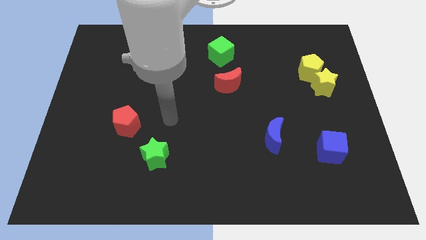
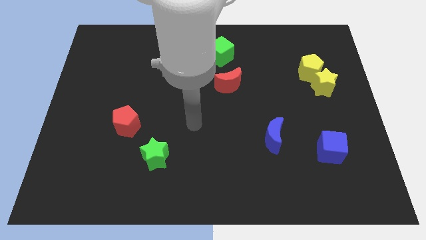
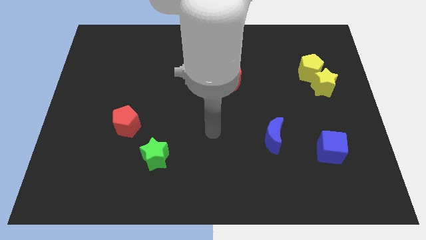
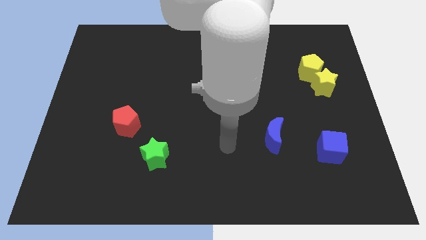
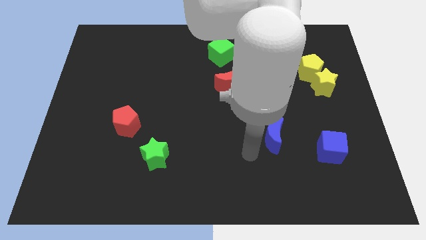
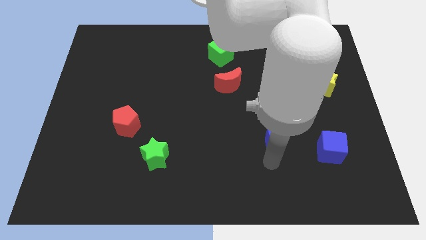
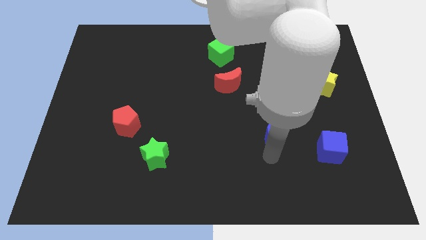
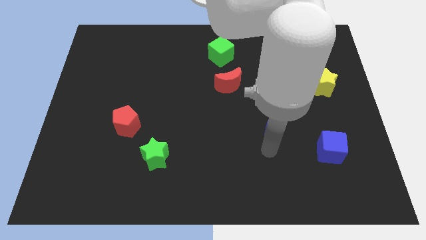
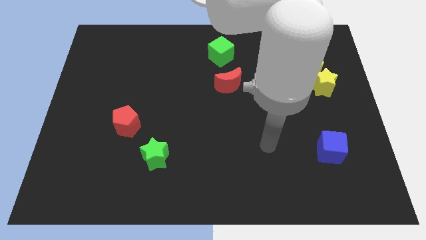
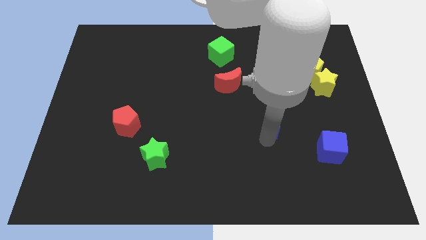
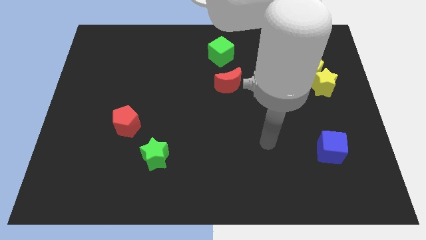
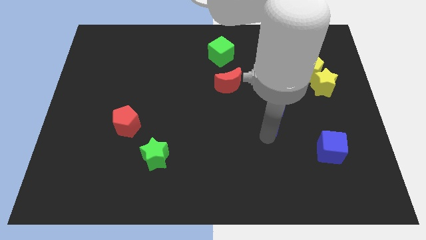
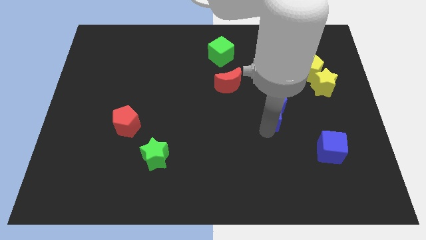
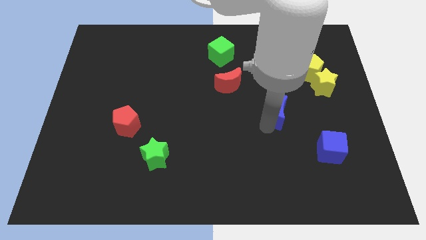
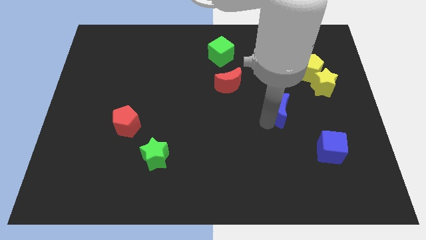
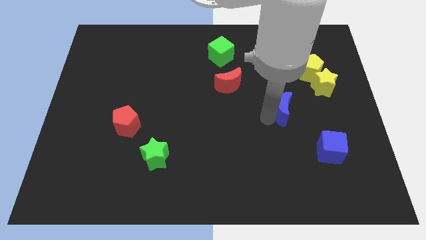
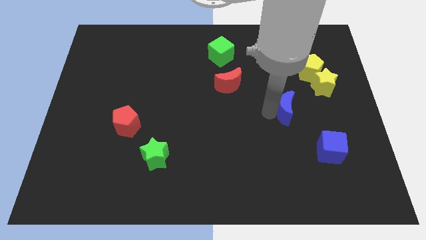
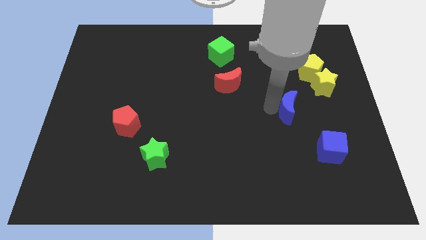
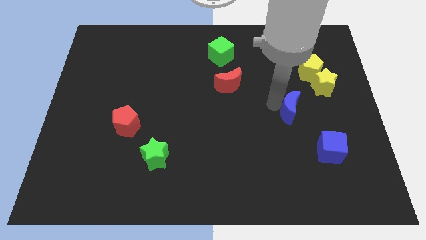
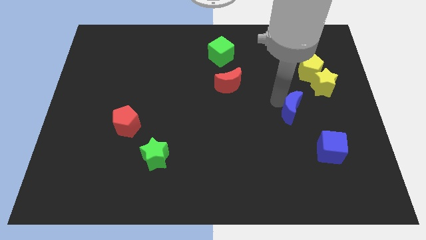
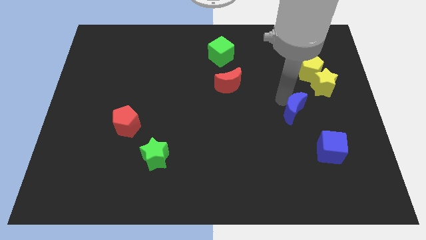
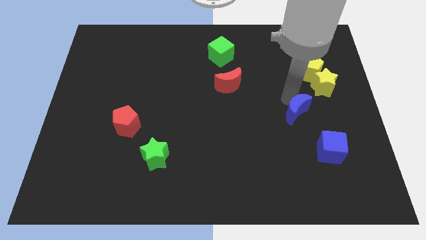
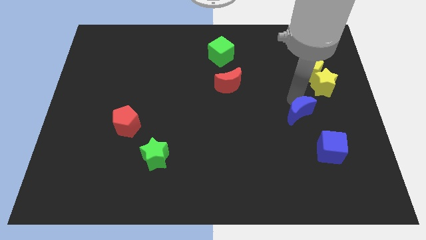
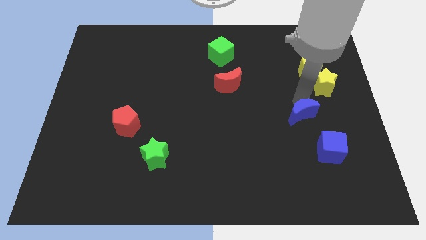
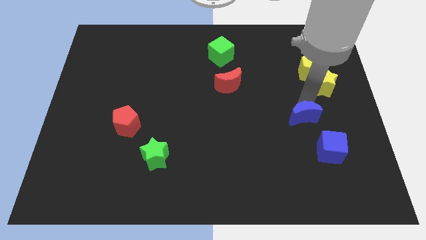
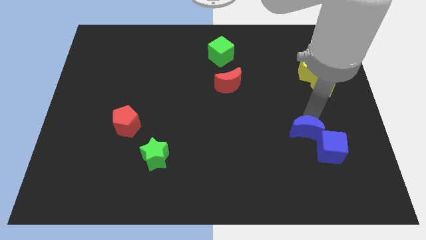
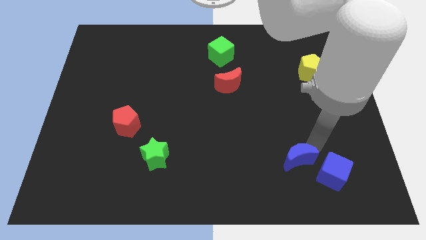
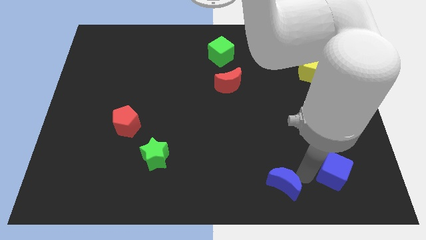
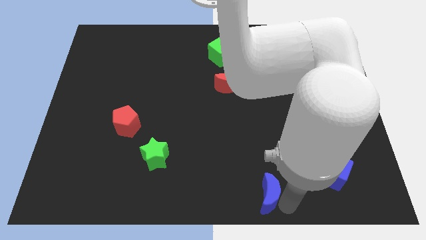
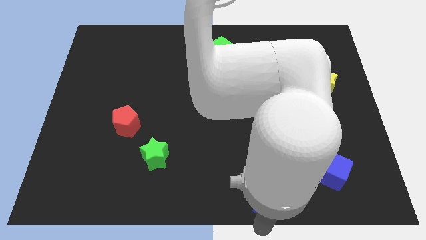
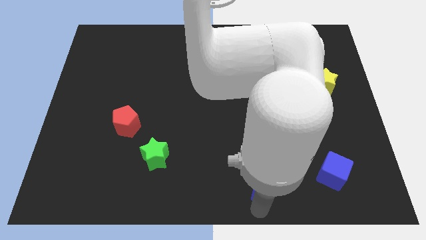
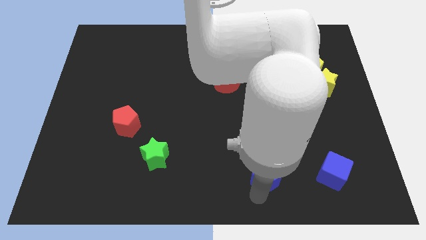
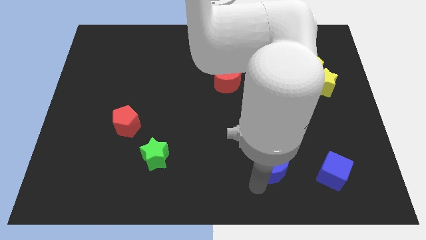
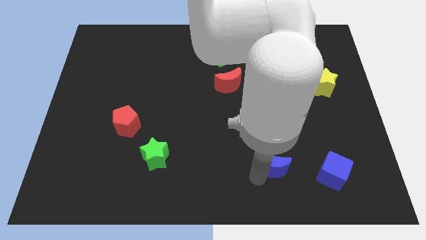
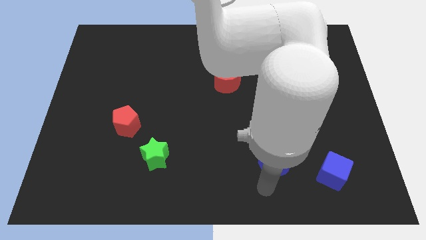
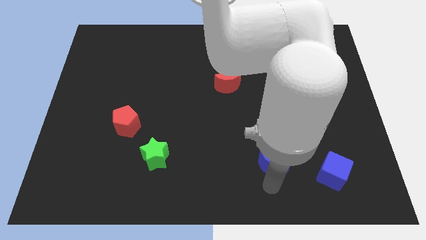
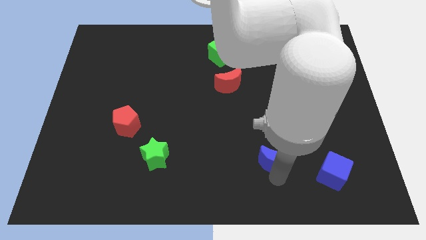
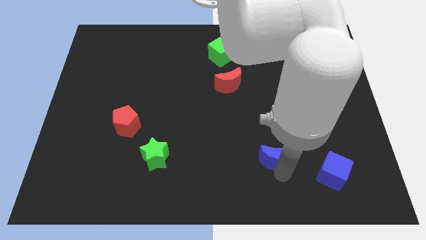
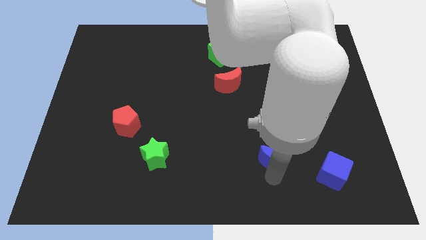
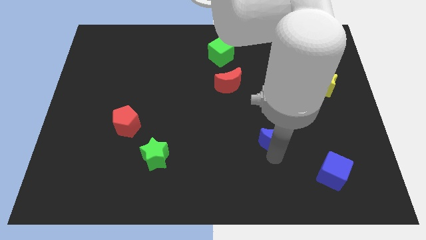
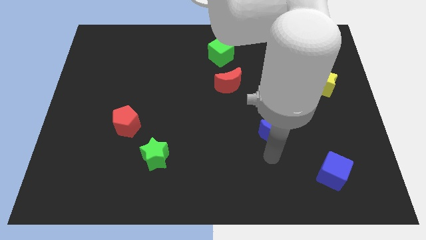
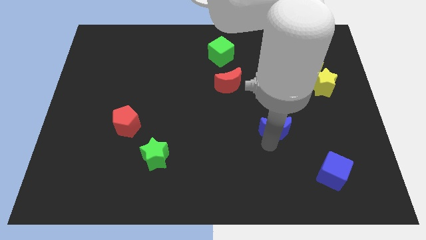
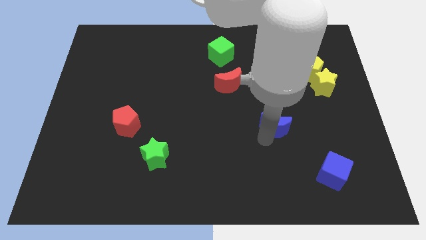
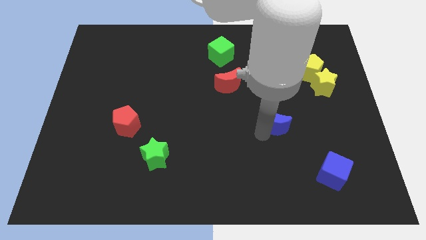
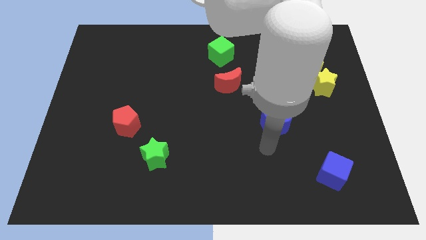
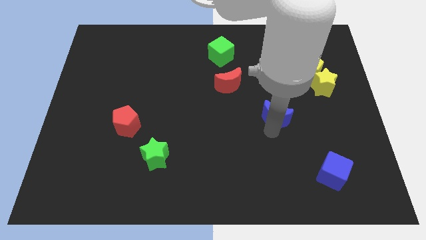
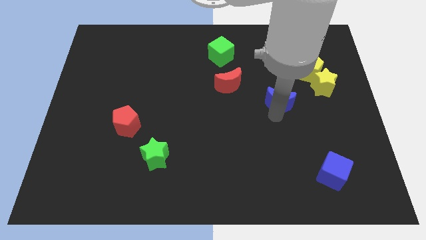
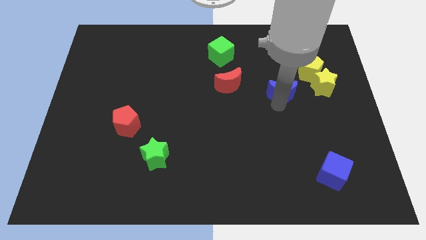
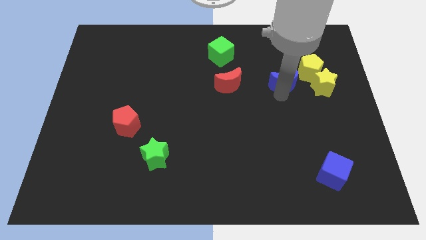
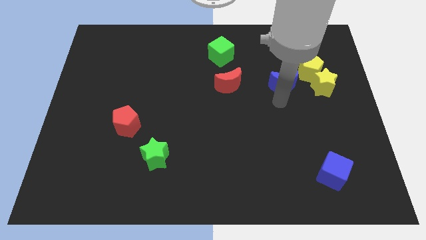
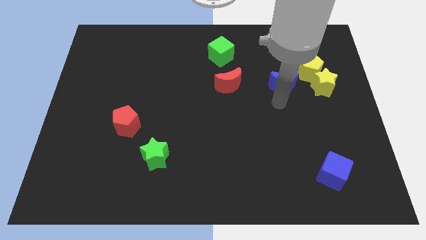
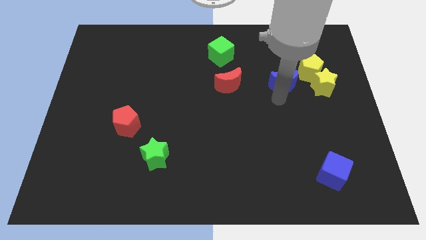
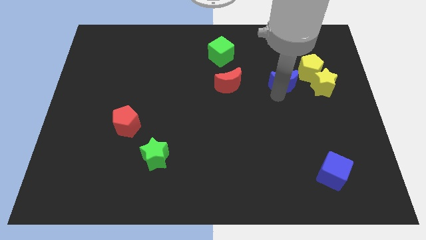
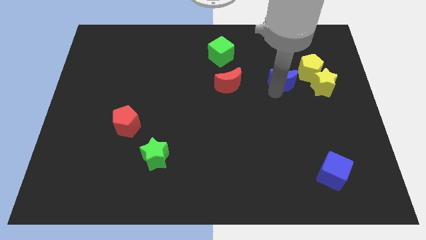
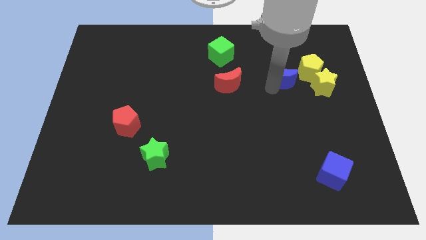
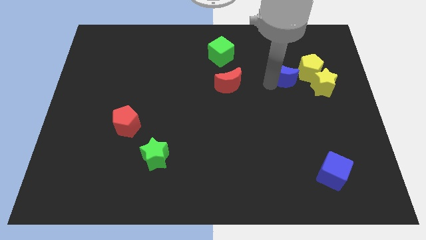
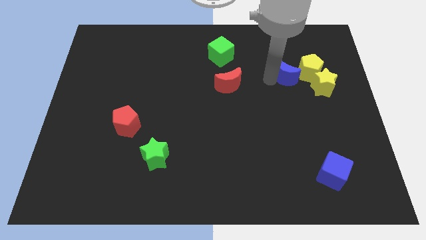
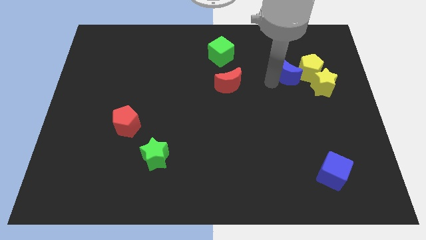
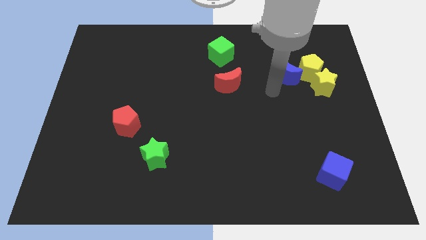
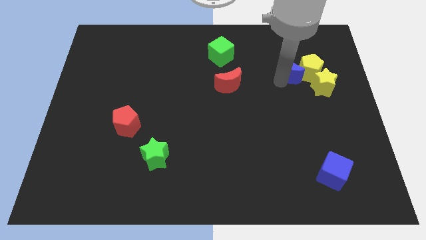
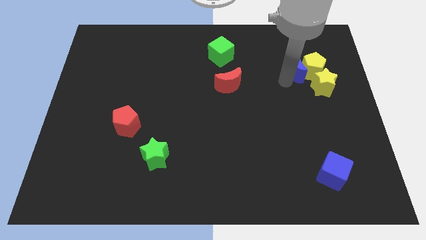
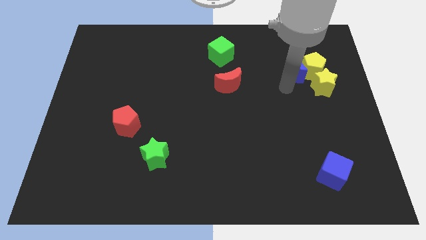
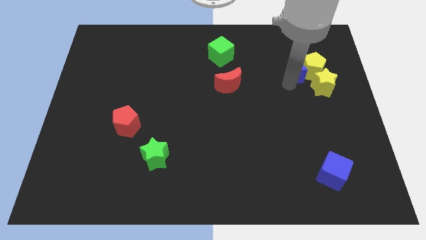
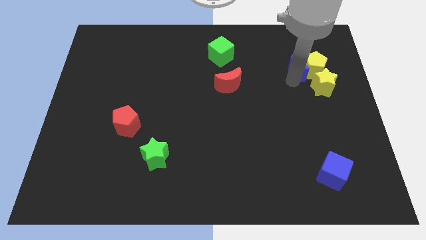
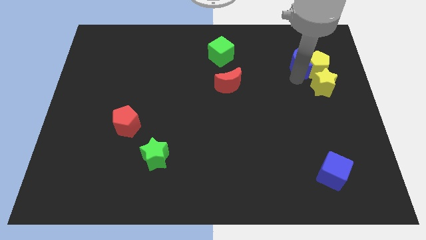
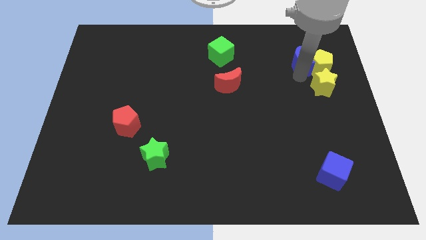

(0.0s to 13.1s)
move the blue moon to the top of the yellow star
